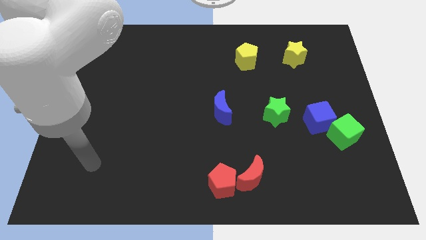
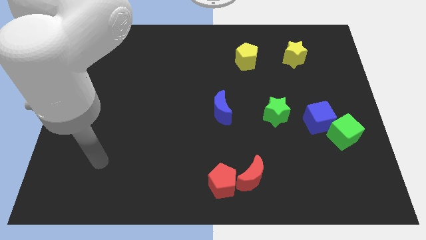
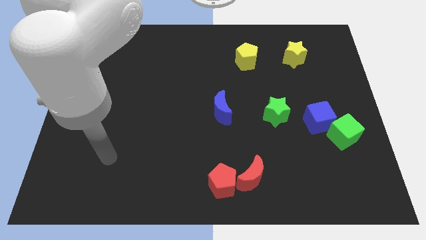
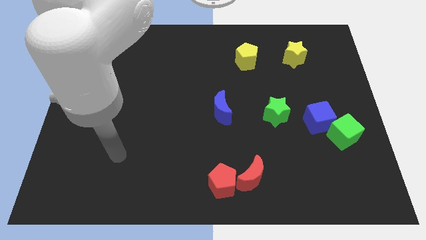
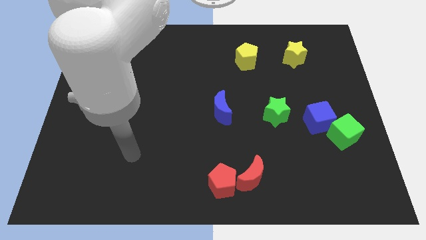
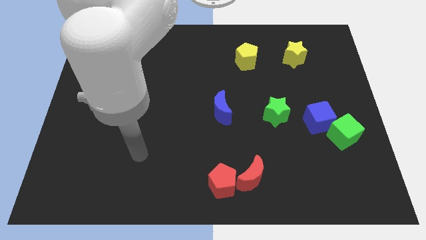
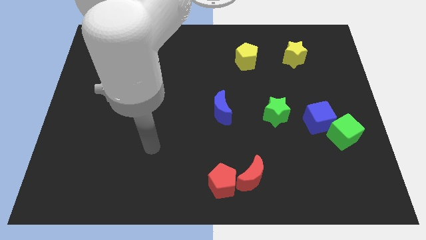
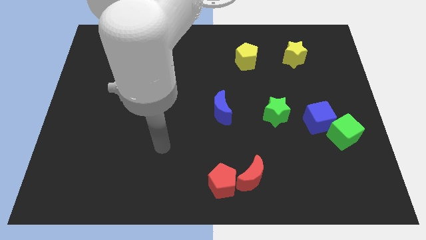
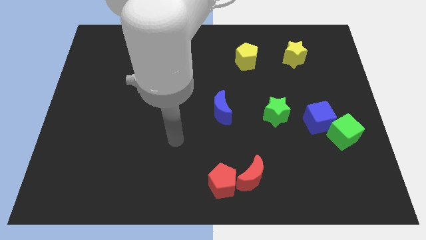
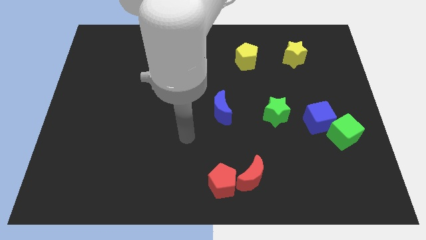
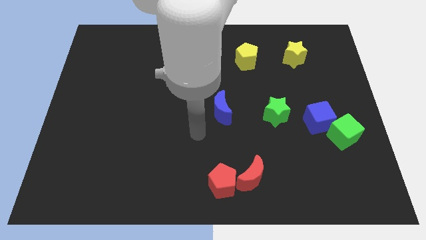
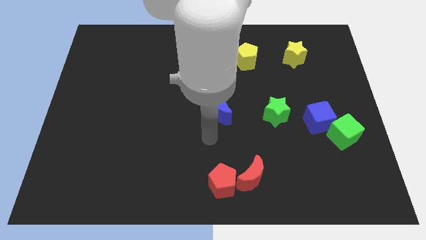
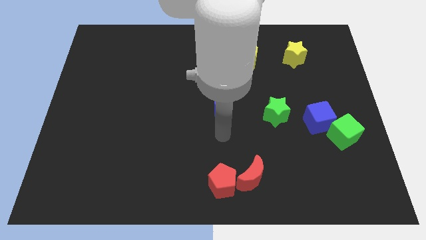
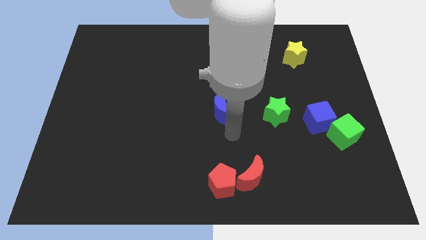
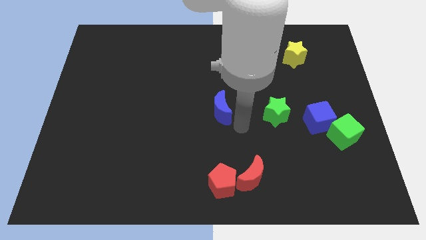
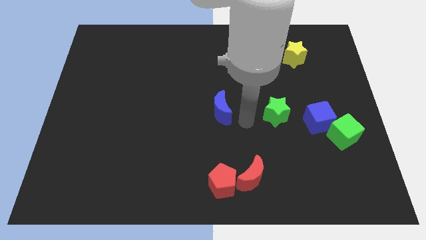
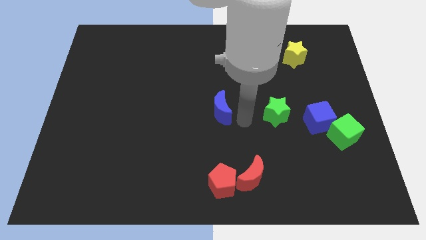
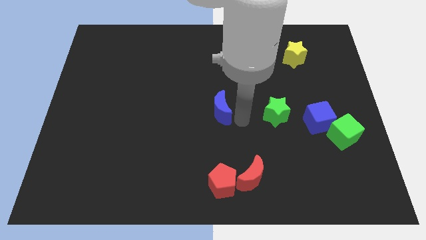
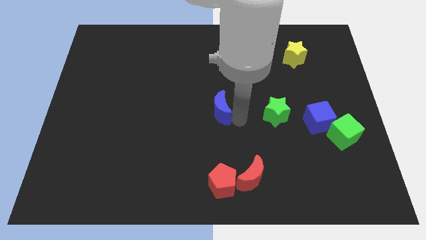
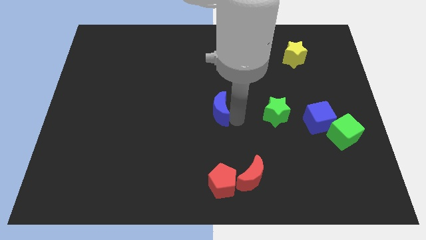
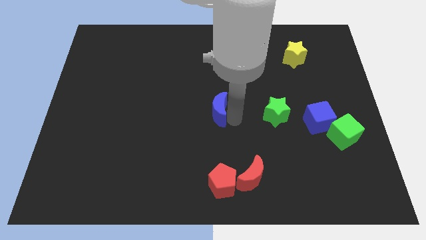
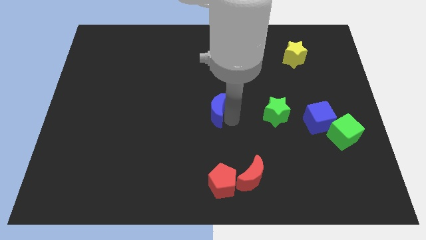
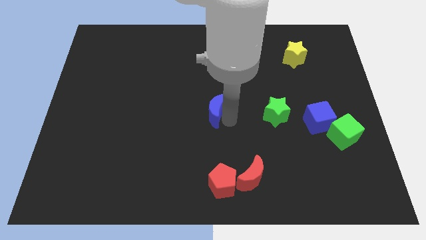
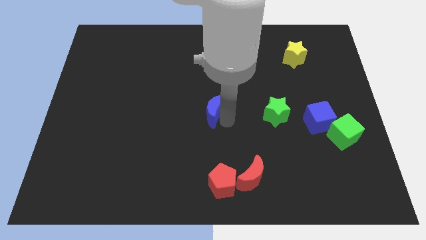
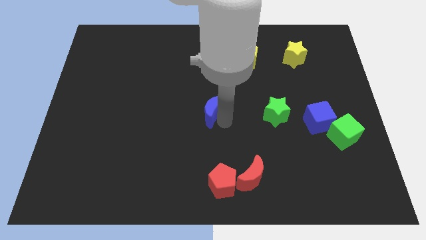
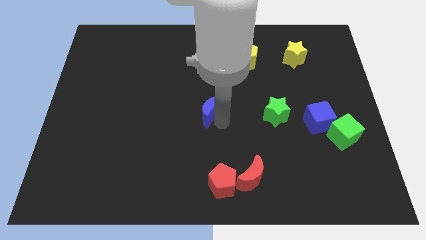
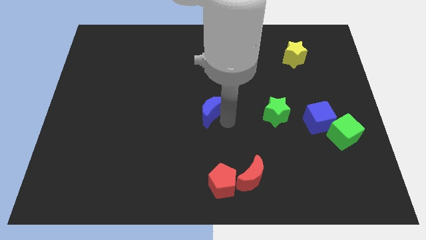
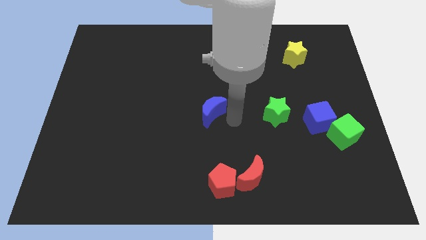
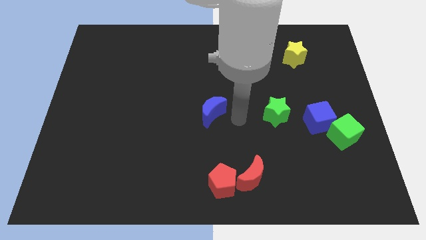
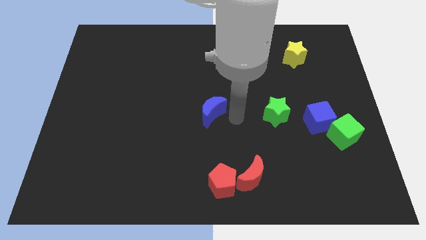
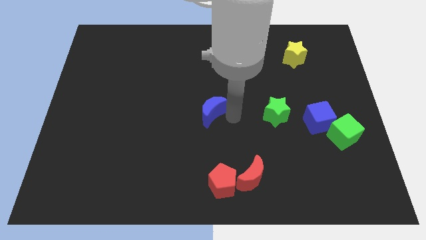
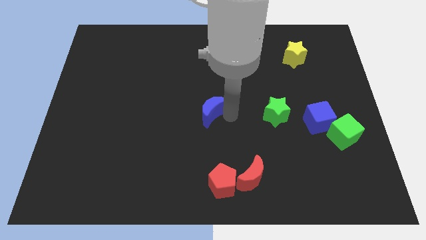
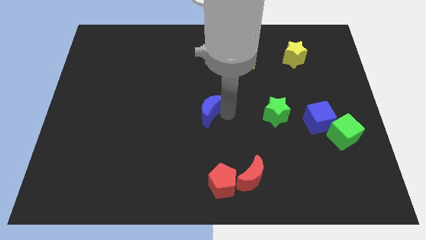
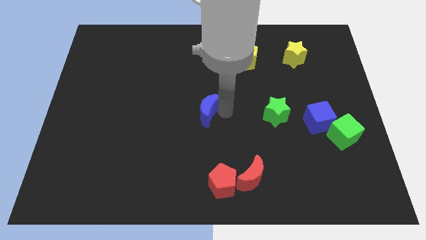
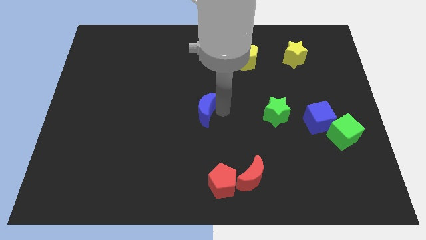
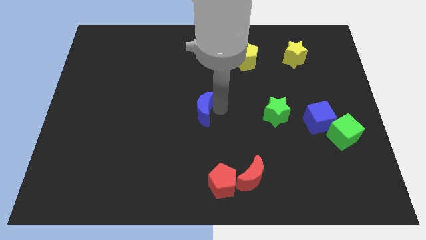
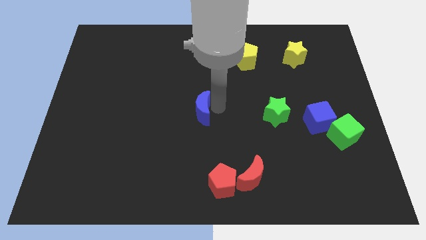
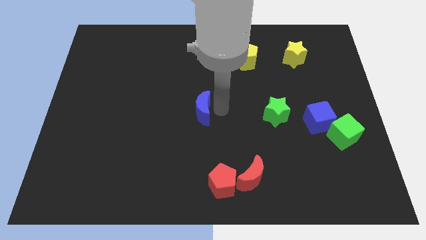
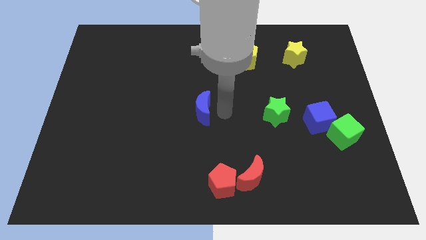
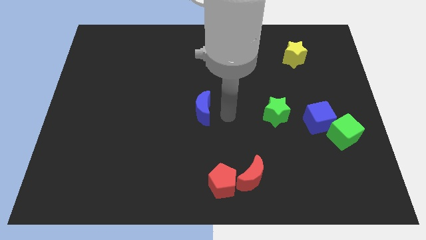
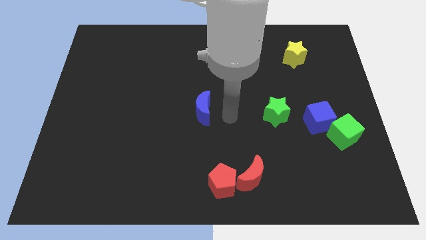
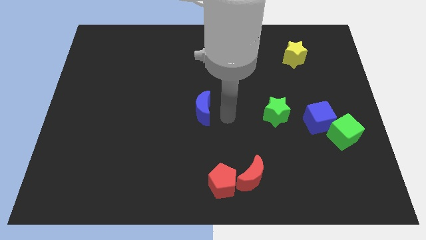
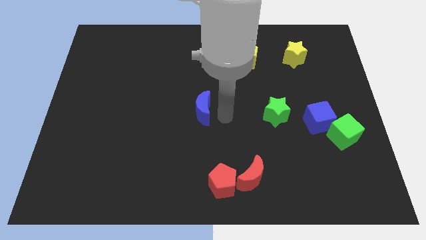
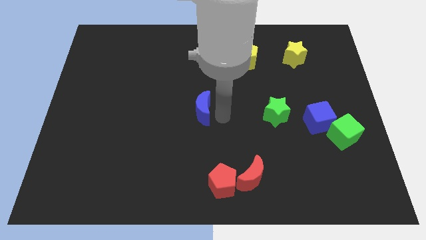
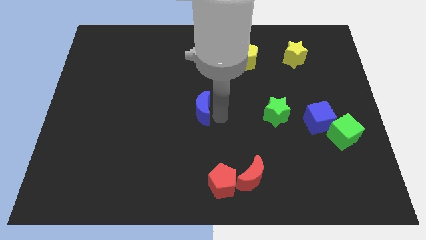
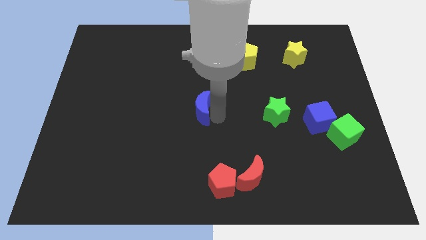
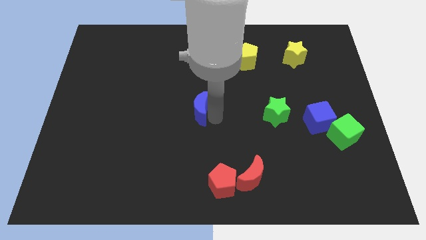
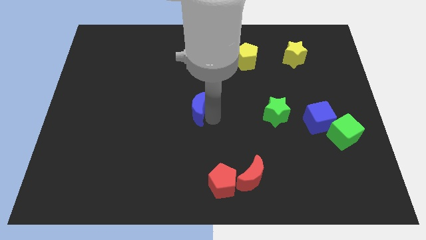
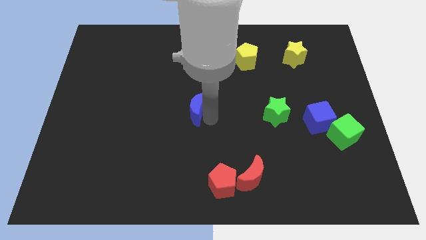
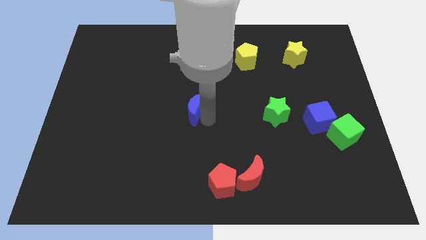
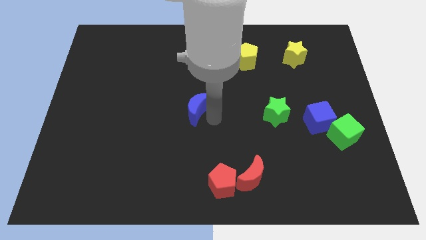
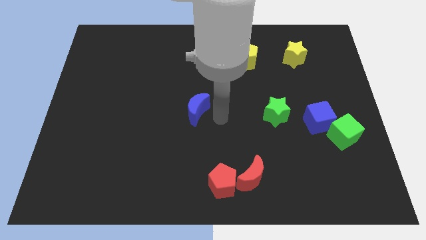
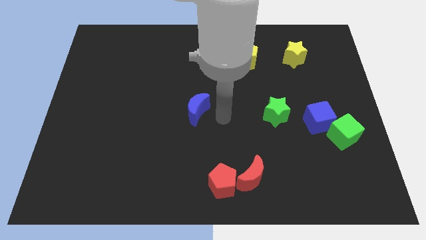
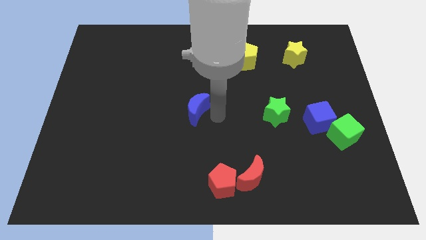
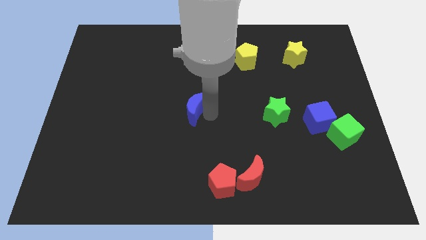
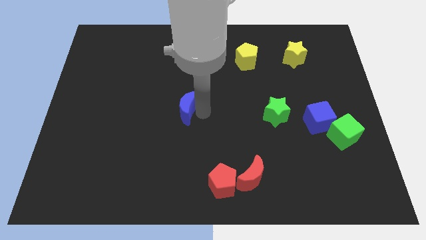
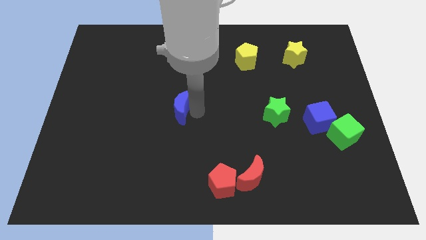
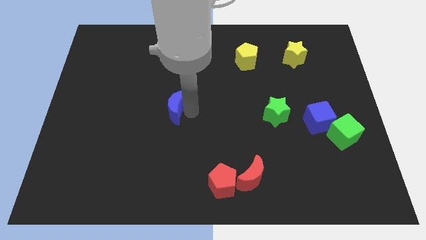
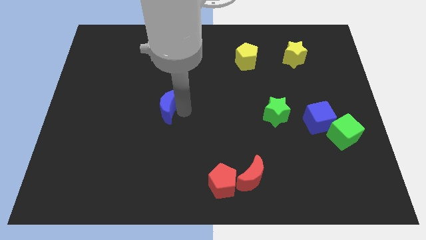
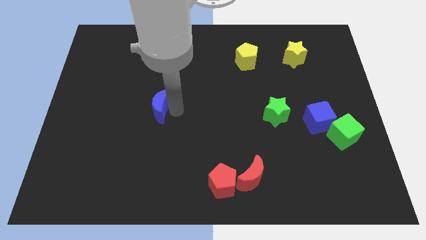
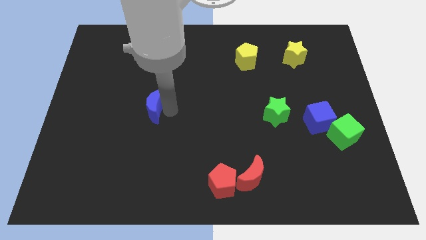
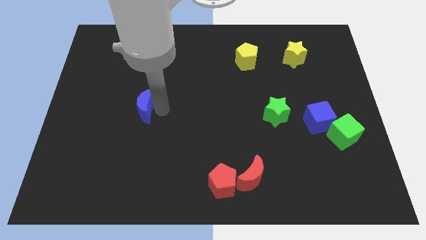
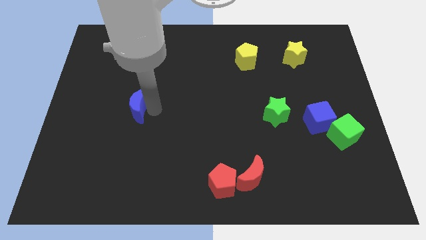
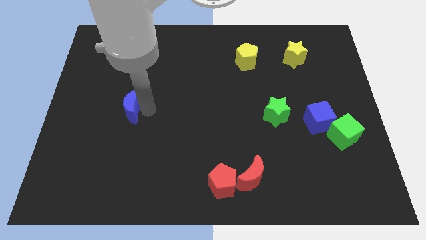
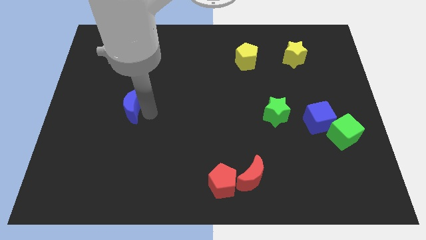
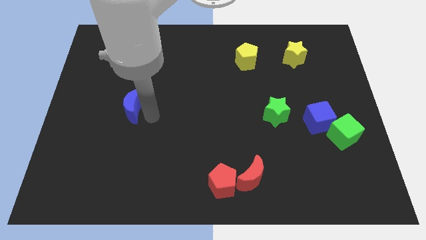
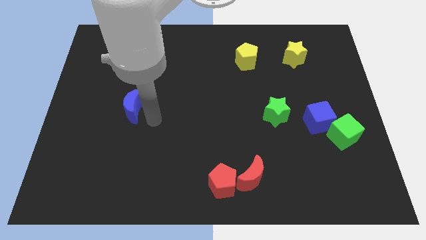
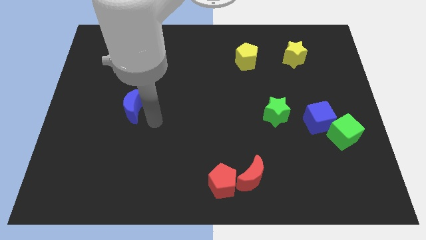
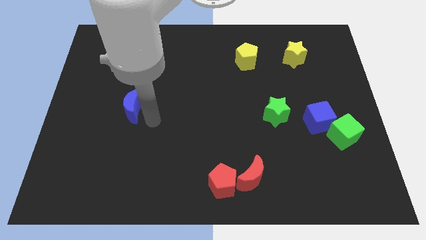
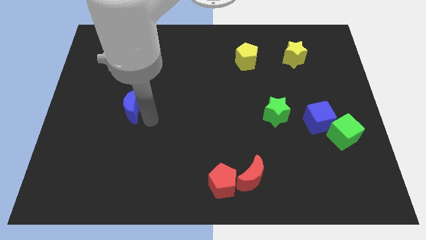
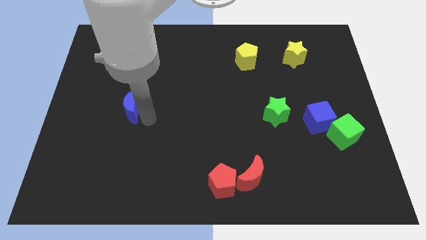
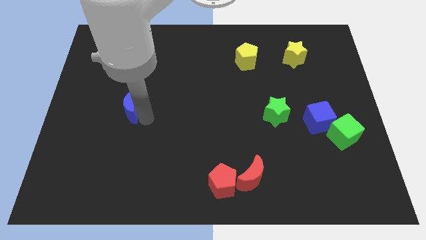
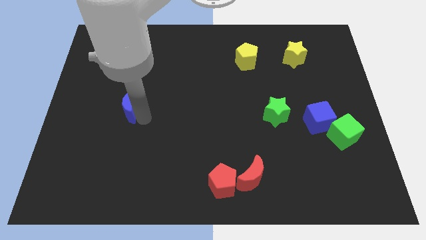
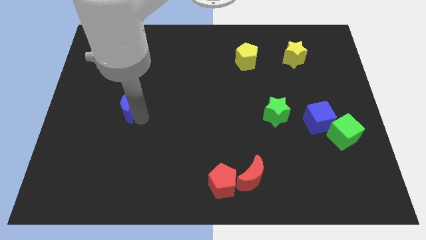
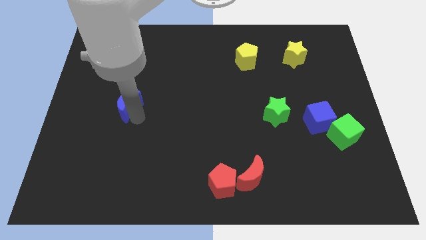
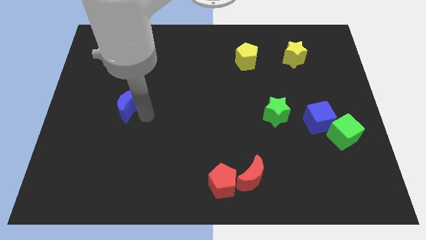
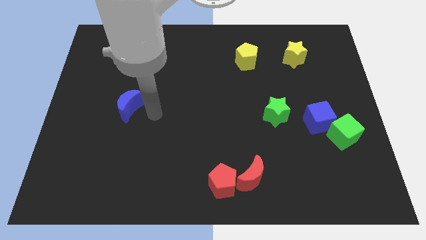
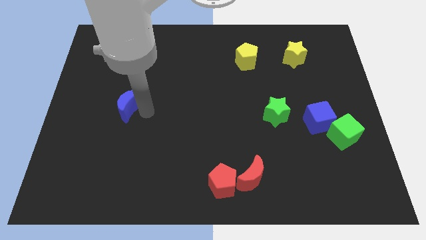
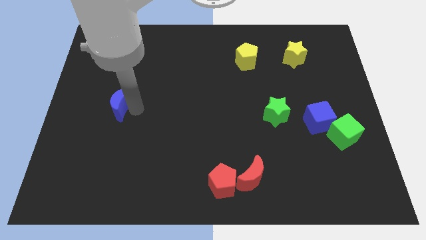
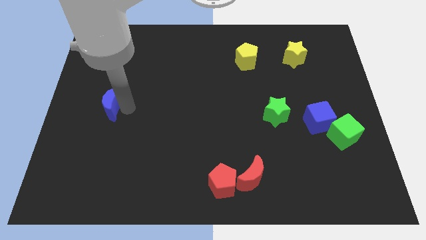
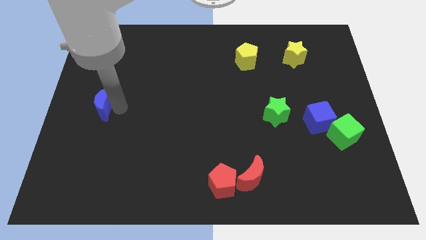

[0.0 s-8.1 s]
move the blue moon to the left side of the board
